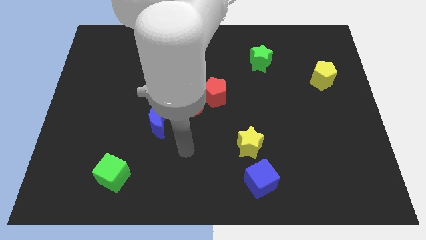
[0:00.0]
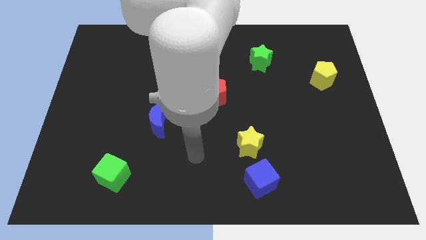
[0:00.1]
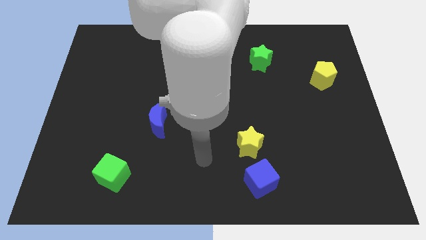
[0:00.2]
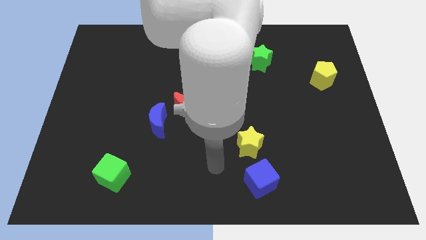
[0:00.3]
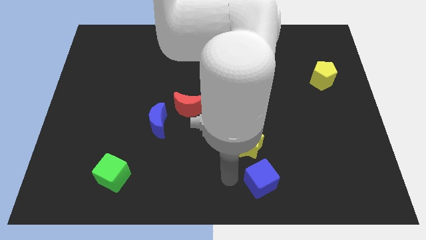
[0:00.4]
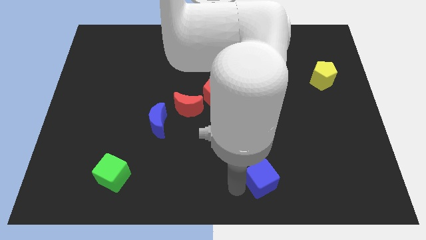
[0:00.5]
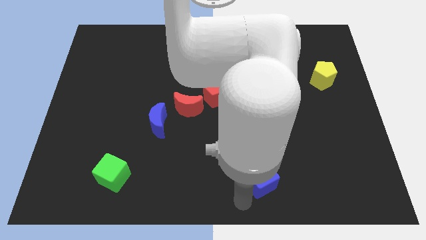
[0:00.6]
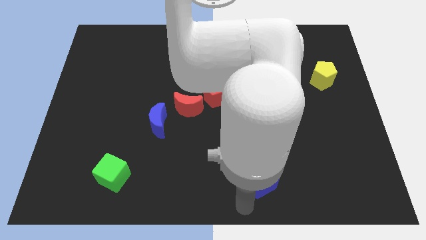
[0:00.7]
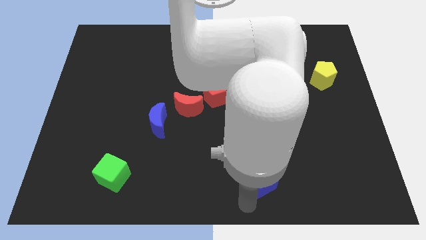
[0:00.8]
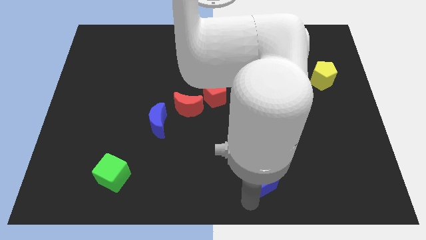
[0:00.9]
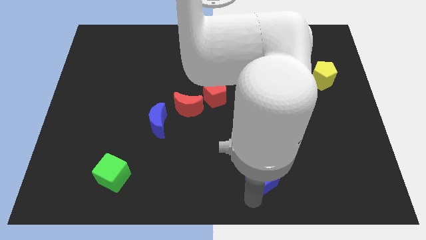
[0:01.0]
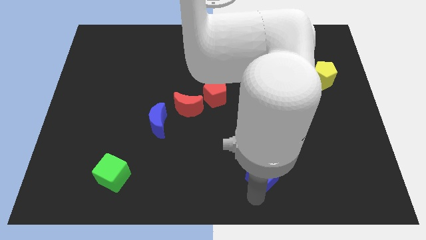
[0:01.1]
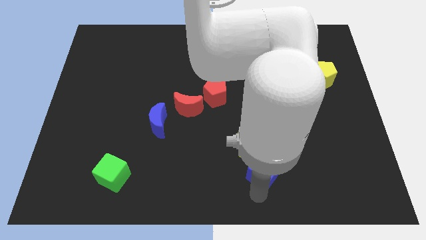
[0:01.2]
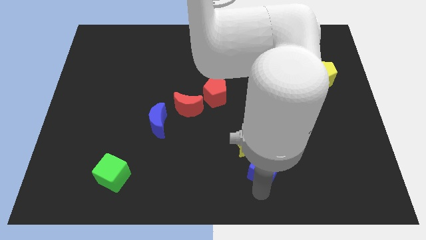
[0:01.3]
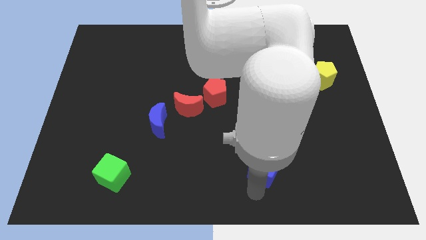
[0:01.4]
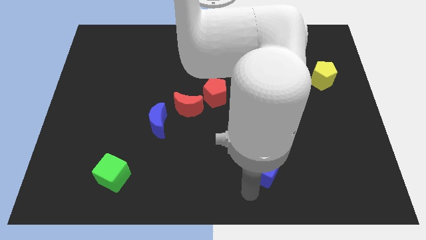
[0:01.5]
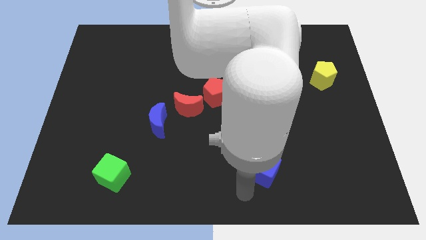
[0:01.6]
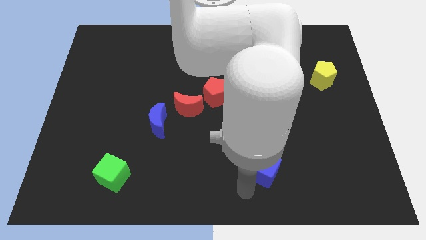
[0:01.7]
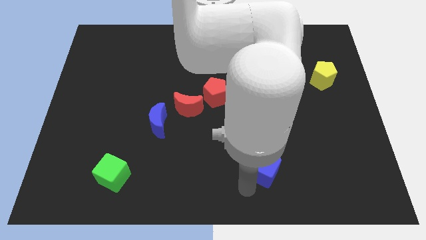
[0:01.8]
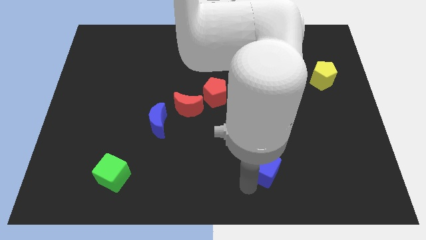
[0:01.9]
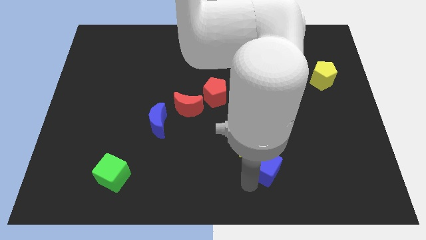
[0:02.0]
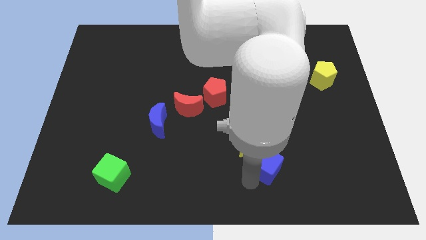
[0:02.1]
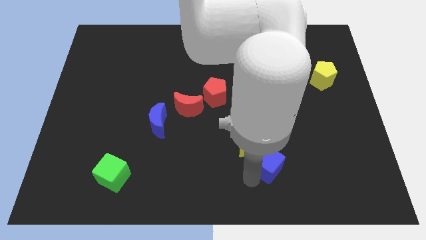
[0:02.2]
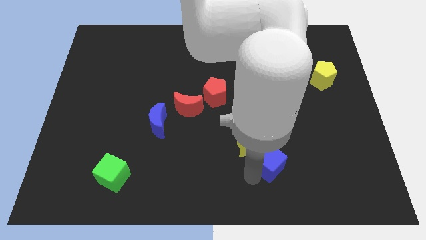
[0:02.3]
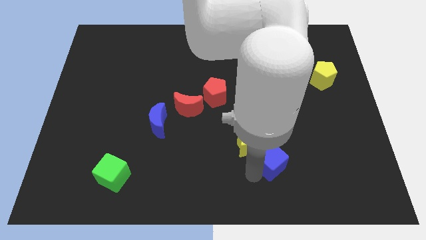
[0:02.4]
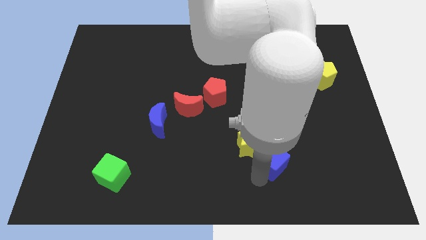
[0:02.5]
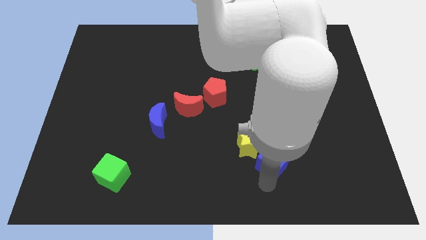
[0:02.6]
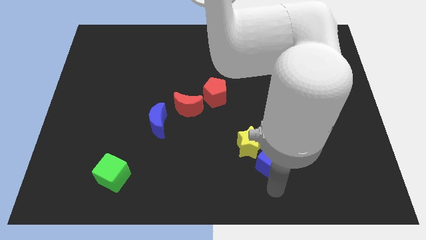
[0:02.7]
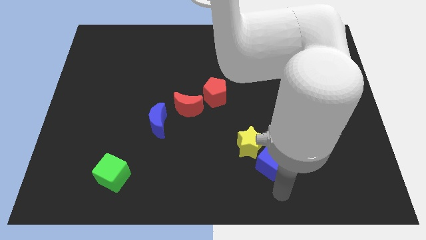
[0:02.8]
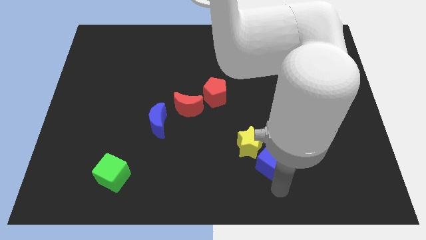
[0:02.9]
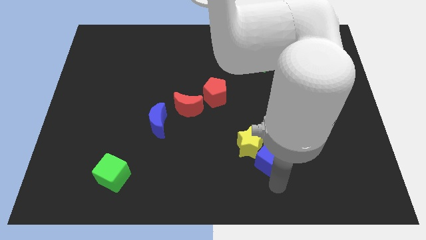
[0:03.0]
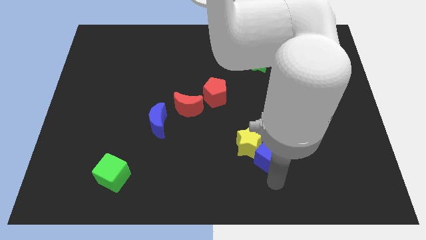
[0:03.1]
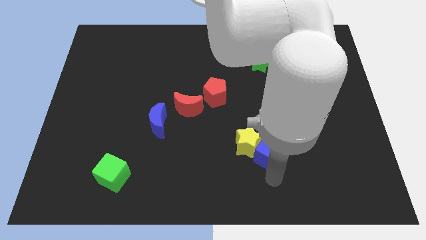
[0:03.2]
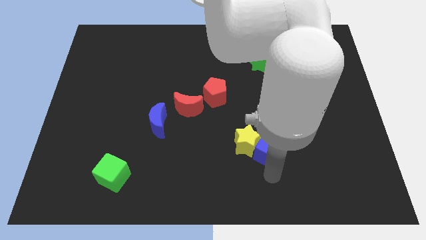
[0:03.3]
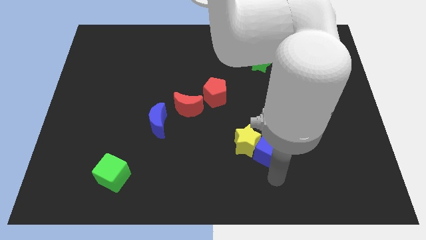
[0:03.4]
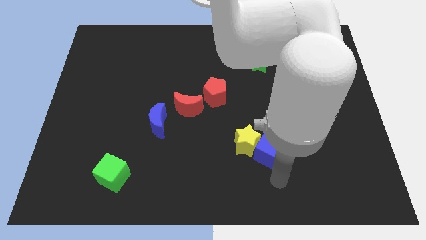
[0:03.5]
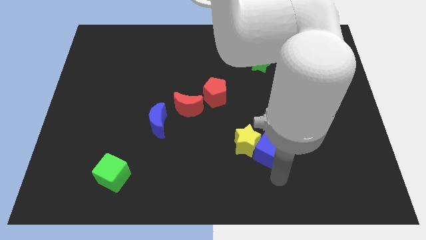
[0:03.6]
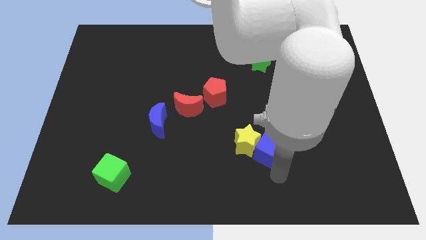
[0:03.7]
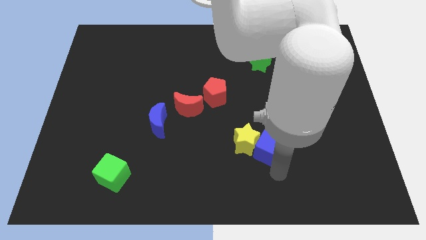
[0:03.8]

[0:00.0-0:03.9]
slide the blue cube up a little bit

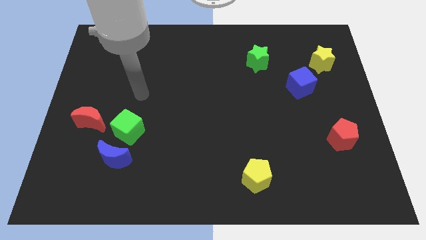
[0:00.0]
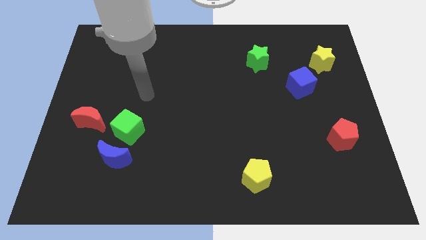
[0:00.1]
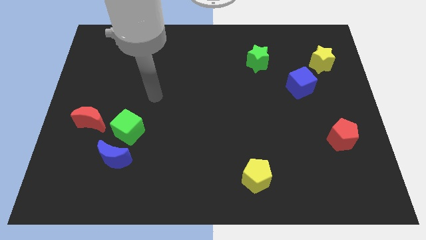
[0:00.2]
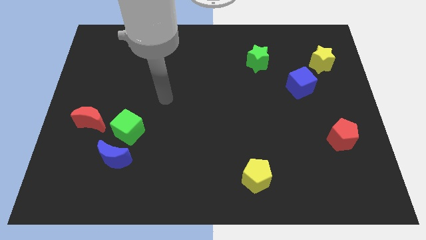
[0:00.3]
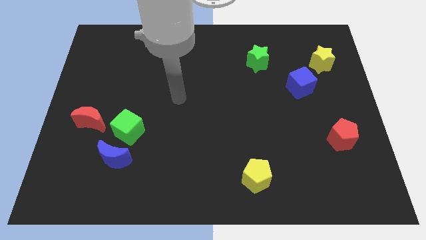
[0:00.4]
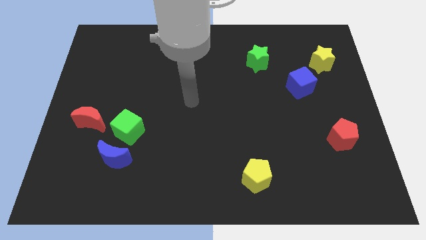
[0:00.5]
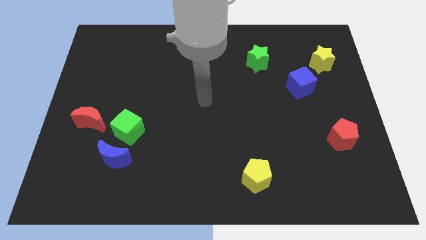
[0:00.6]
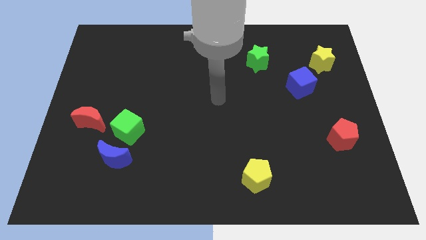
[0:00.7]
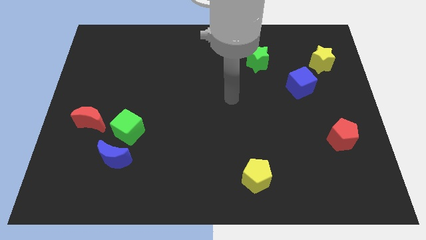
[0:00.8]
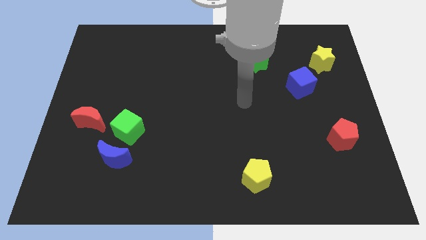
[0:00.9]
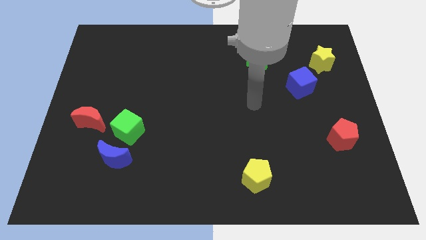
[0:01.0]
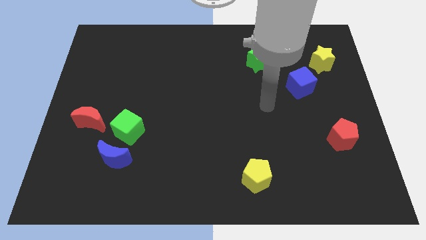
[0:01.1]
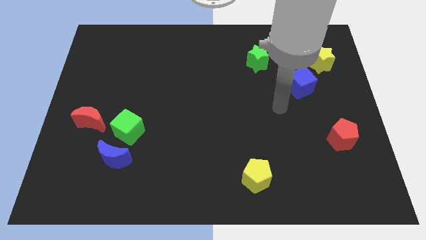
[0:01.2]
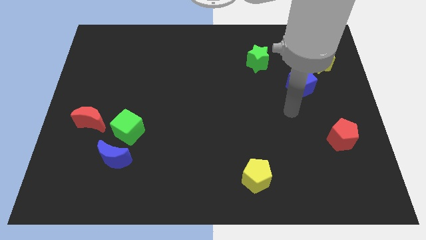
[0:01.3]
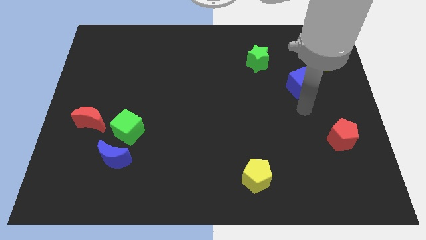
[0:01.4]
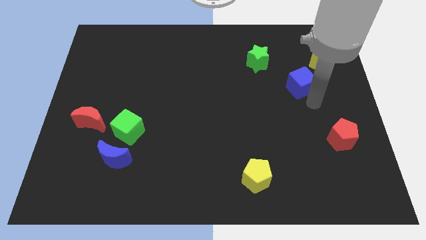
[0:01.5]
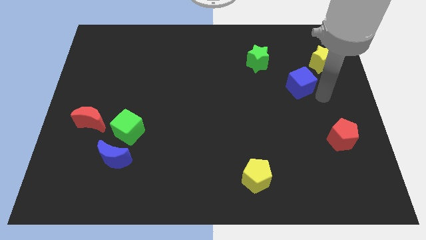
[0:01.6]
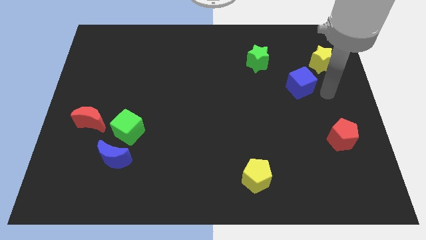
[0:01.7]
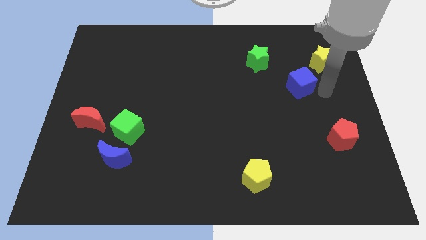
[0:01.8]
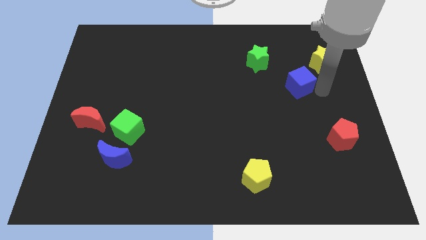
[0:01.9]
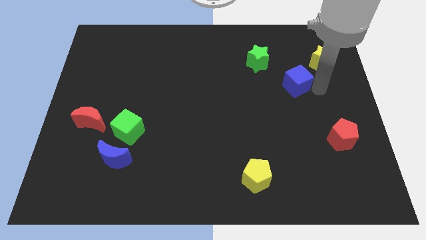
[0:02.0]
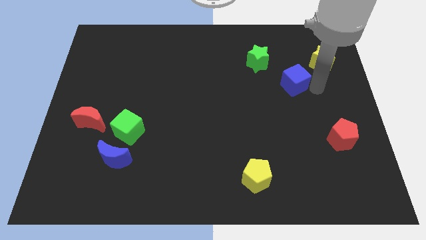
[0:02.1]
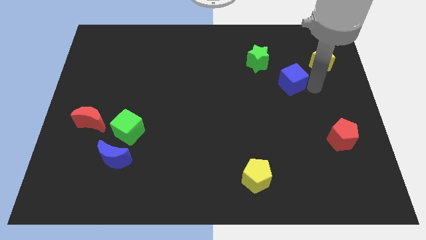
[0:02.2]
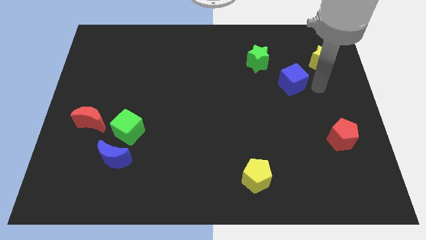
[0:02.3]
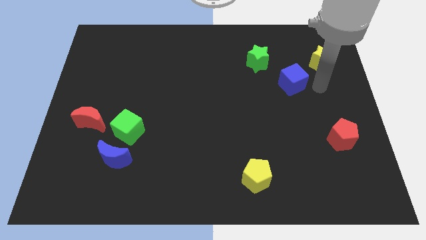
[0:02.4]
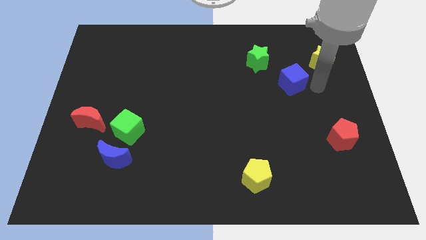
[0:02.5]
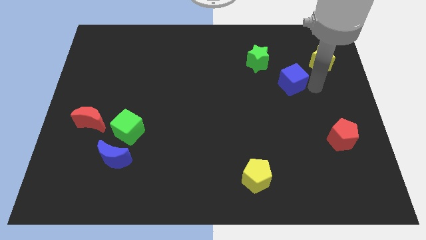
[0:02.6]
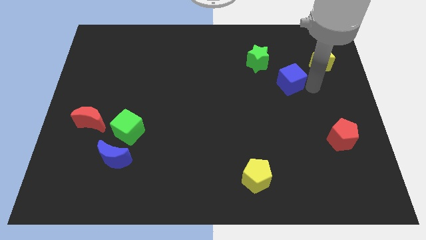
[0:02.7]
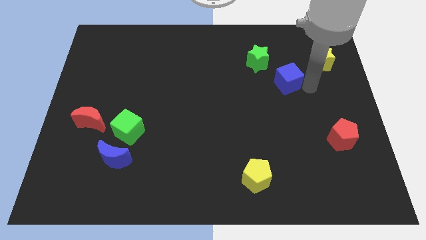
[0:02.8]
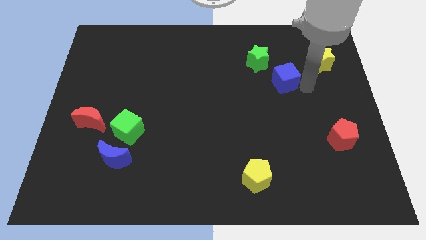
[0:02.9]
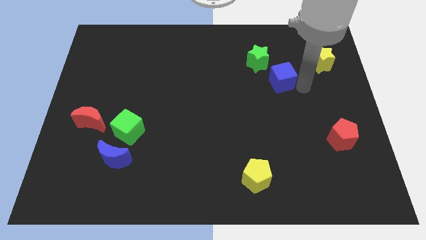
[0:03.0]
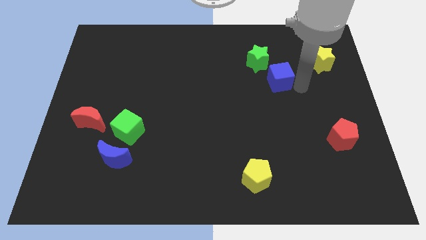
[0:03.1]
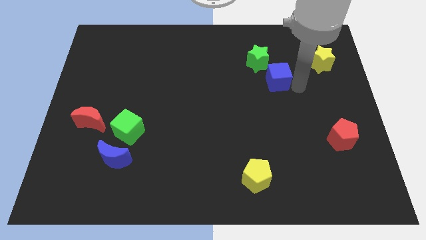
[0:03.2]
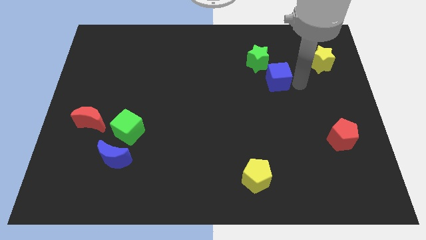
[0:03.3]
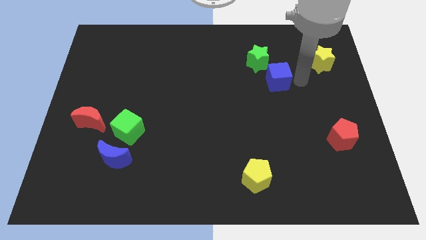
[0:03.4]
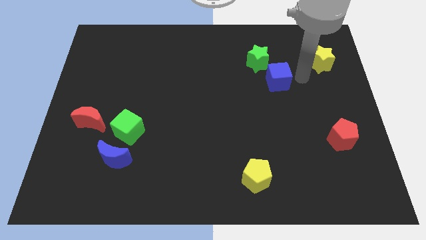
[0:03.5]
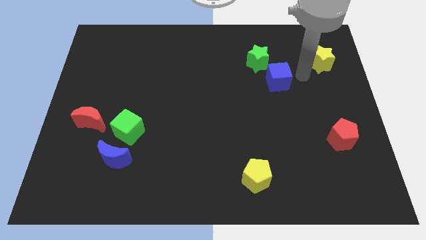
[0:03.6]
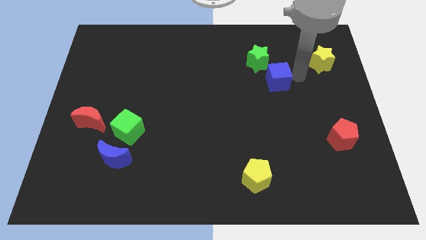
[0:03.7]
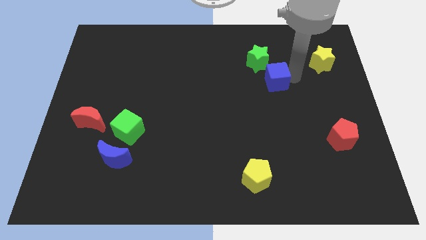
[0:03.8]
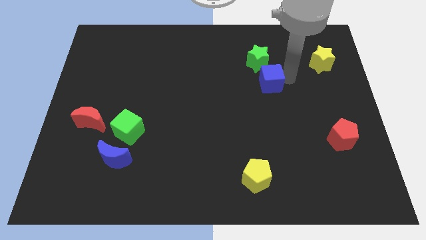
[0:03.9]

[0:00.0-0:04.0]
slightly push the blue cube to the left

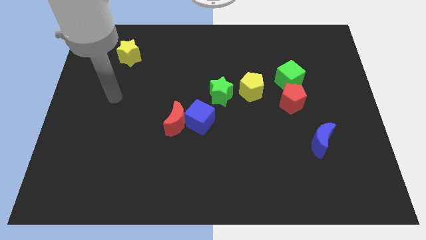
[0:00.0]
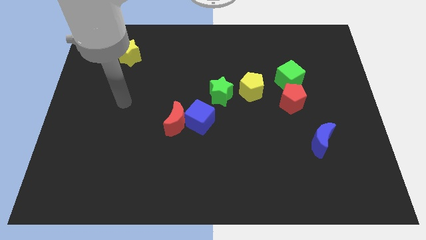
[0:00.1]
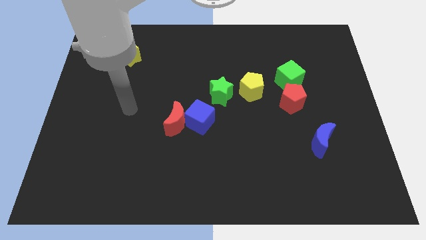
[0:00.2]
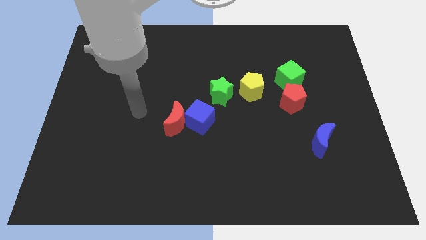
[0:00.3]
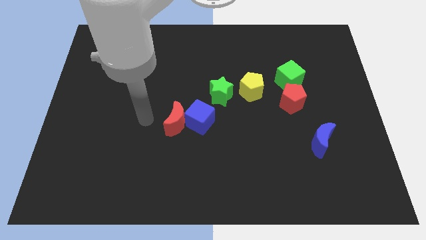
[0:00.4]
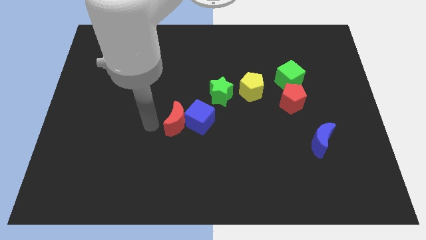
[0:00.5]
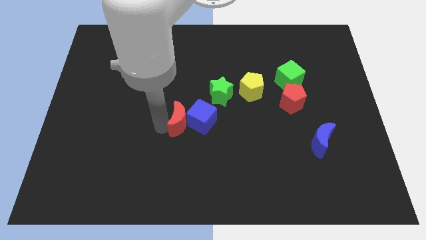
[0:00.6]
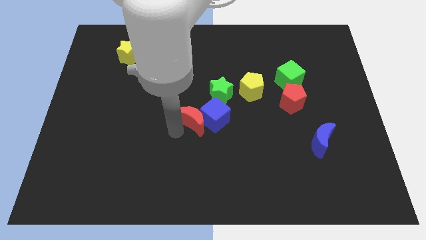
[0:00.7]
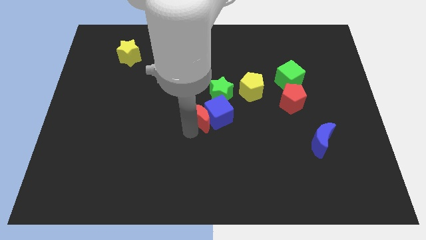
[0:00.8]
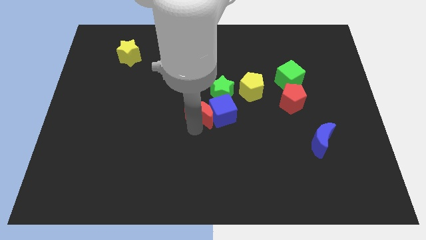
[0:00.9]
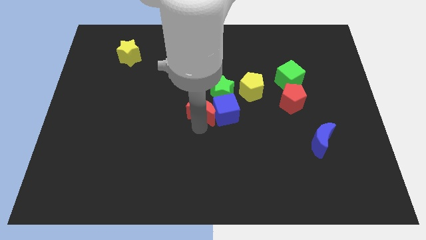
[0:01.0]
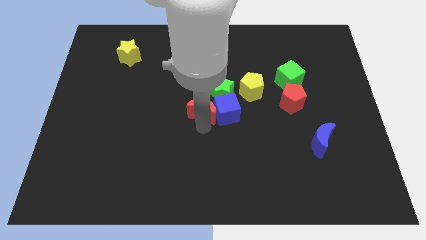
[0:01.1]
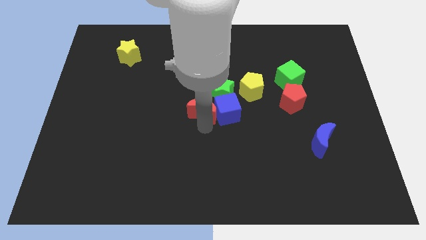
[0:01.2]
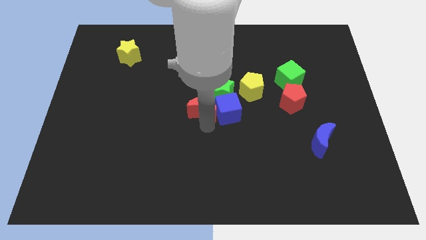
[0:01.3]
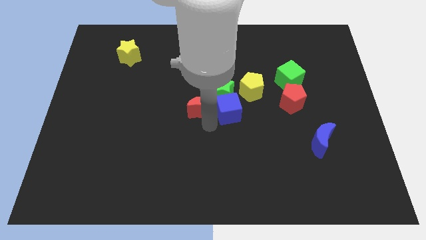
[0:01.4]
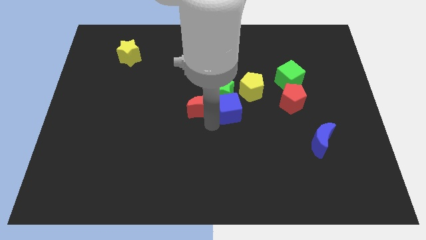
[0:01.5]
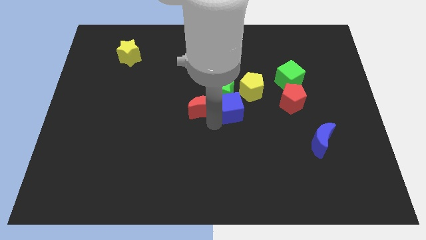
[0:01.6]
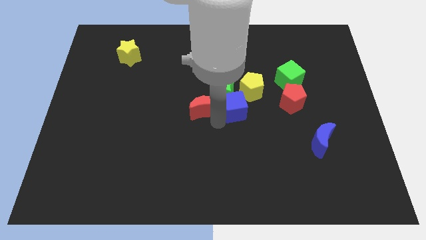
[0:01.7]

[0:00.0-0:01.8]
slightly move the blue cube upwards and then to the right
